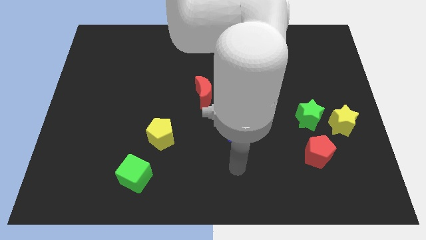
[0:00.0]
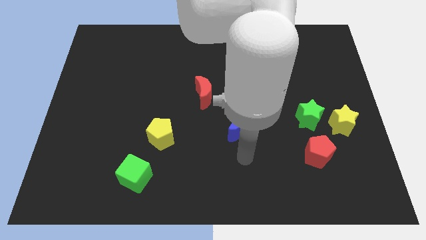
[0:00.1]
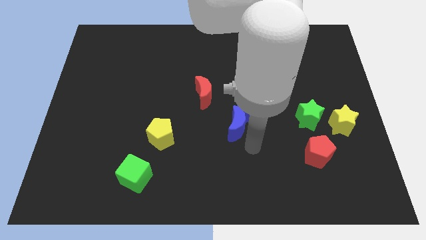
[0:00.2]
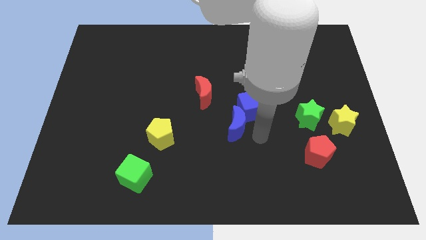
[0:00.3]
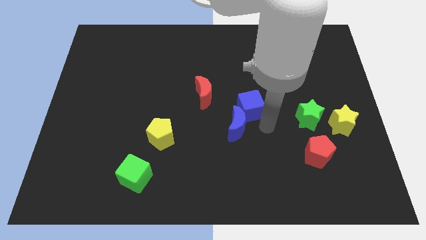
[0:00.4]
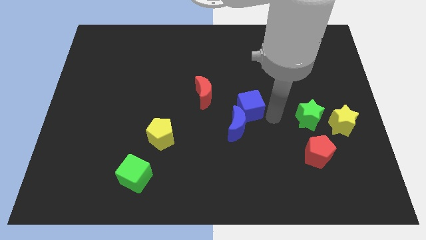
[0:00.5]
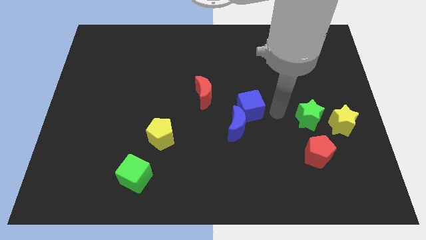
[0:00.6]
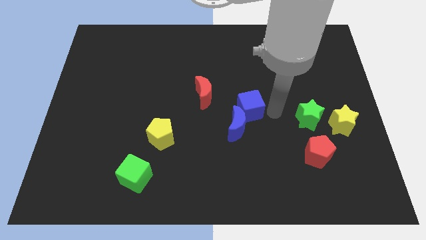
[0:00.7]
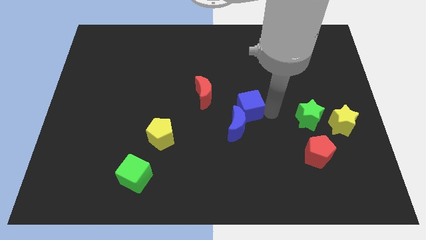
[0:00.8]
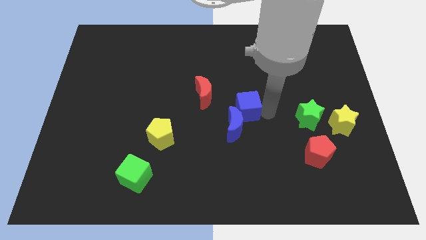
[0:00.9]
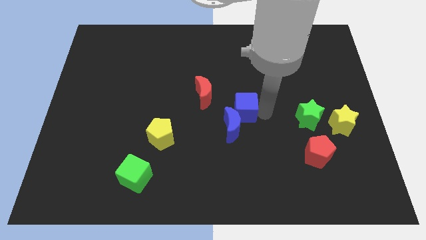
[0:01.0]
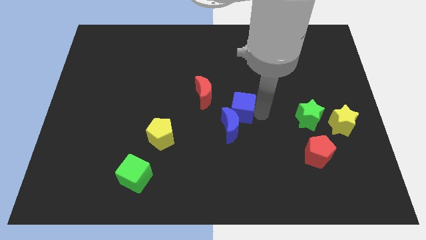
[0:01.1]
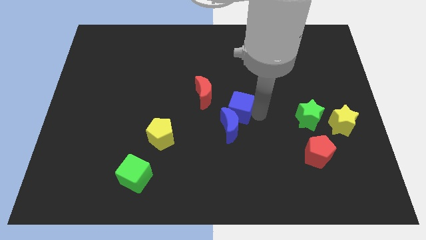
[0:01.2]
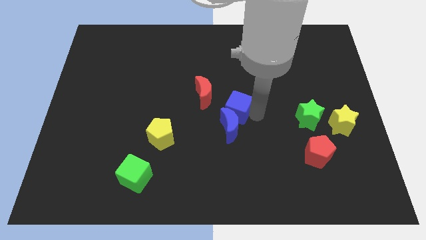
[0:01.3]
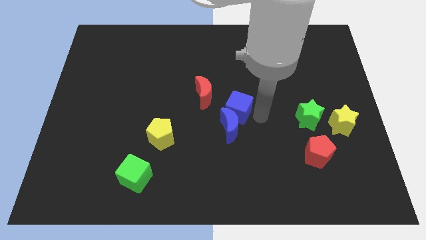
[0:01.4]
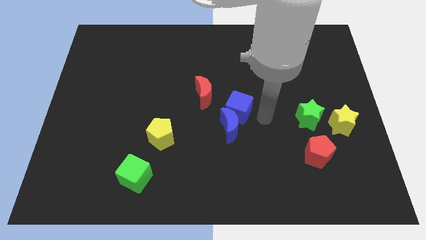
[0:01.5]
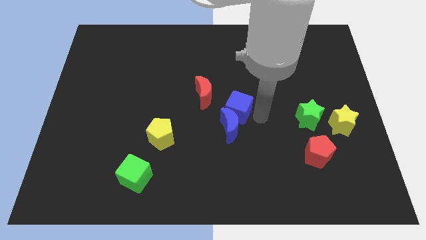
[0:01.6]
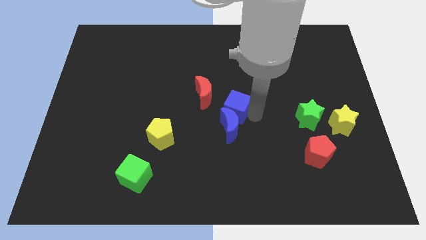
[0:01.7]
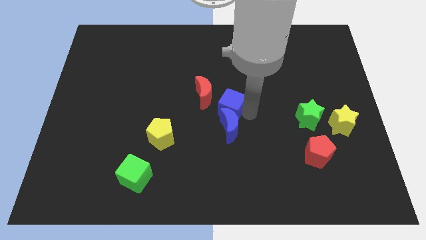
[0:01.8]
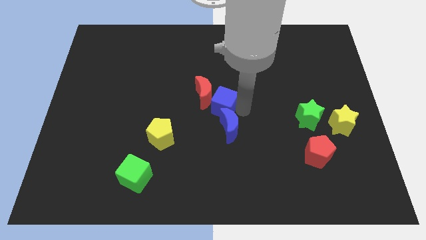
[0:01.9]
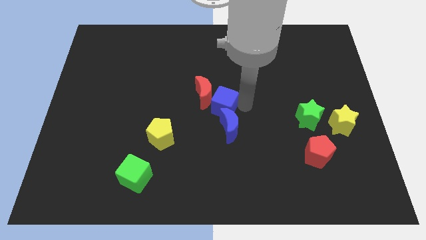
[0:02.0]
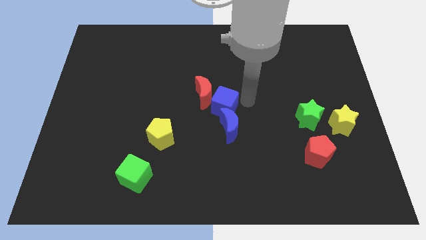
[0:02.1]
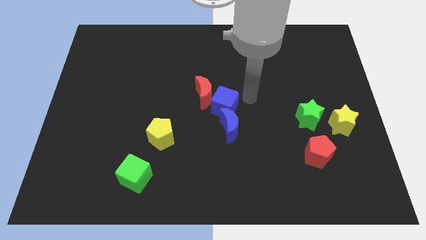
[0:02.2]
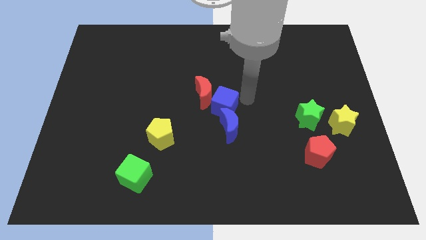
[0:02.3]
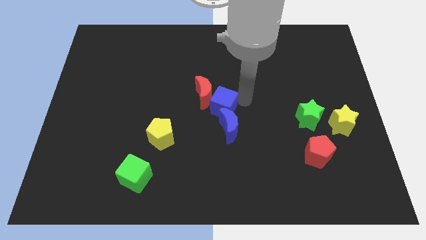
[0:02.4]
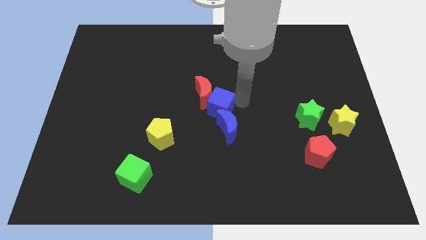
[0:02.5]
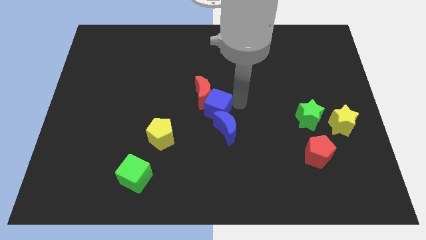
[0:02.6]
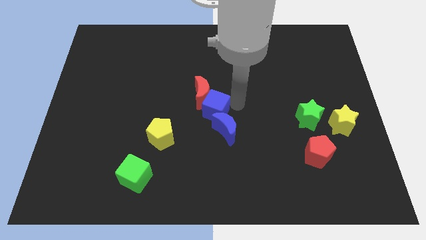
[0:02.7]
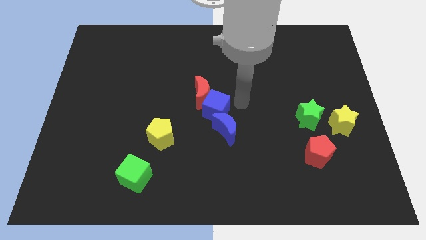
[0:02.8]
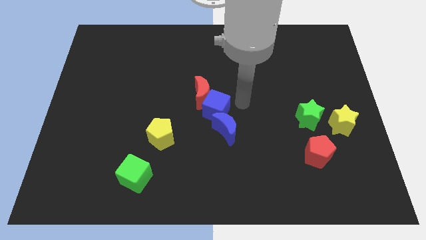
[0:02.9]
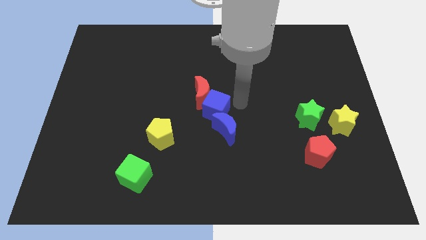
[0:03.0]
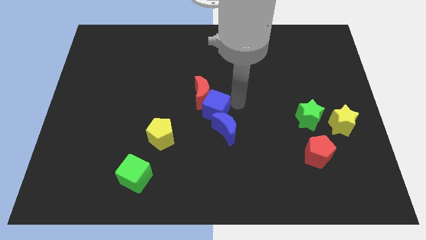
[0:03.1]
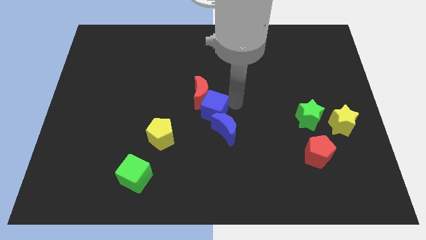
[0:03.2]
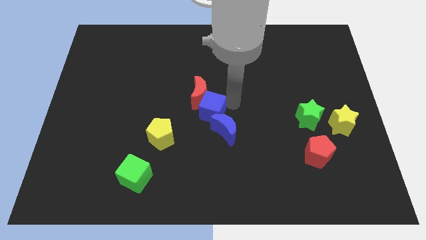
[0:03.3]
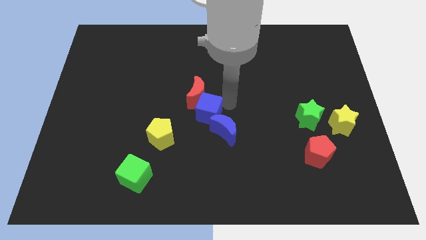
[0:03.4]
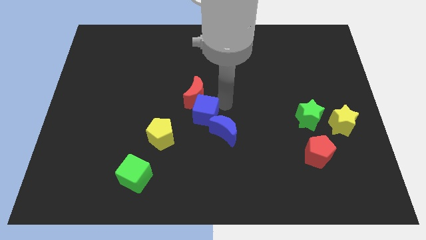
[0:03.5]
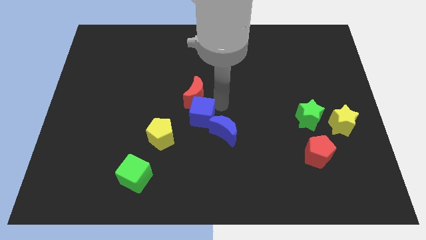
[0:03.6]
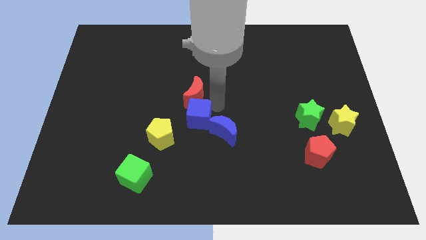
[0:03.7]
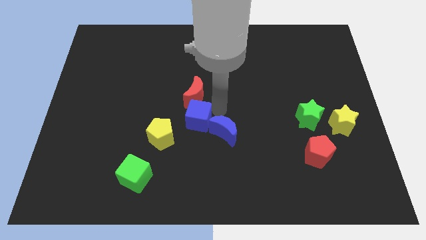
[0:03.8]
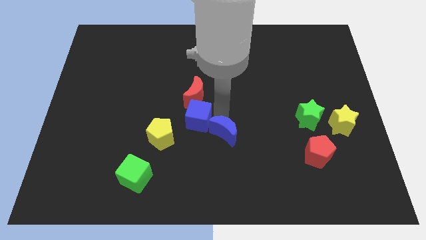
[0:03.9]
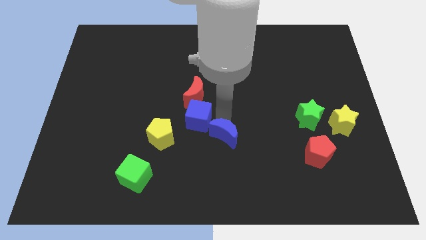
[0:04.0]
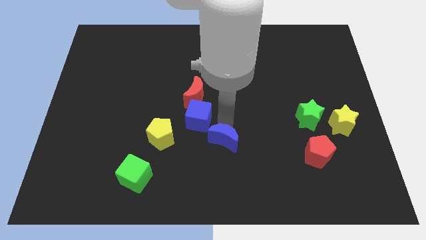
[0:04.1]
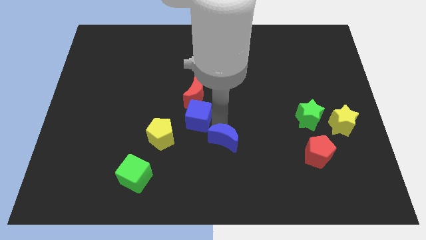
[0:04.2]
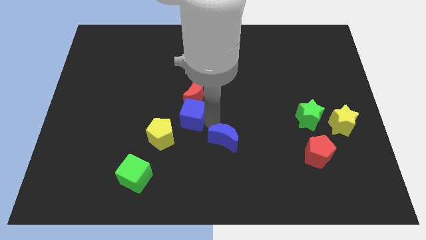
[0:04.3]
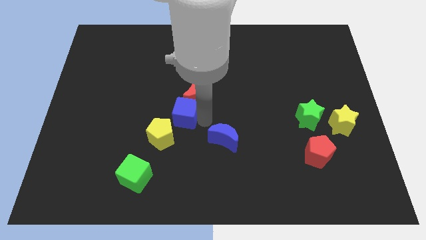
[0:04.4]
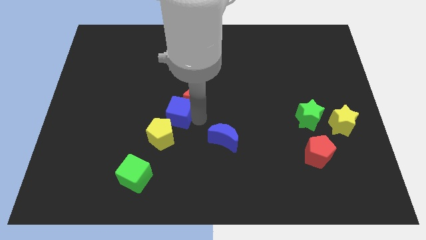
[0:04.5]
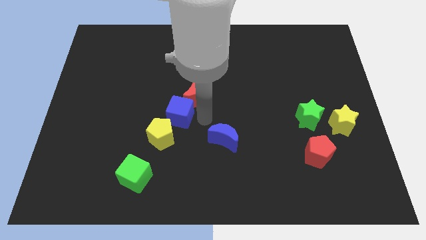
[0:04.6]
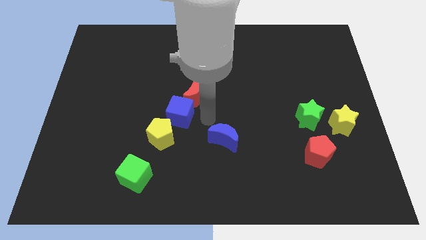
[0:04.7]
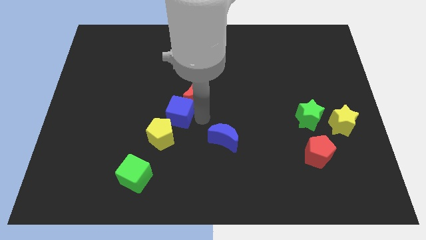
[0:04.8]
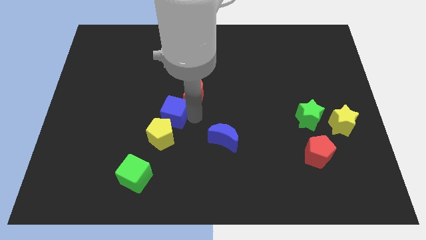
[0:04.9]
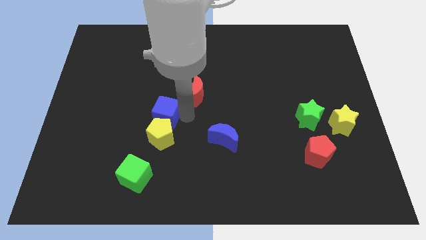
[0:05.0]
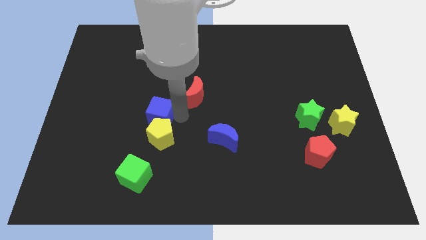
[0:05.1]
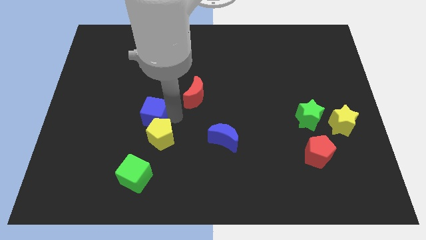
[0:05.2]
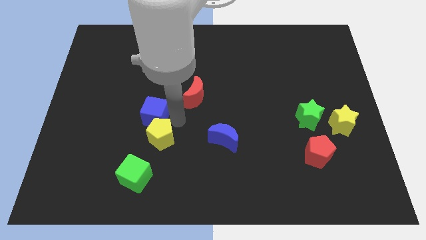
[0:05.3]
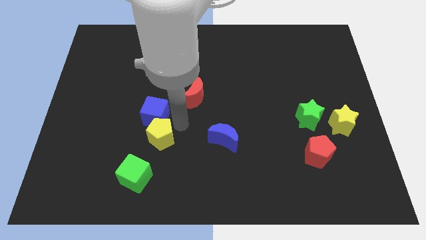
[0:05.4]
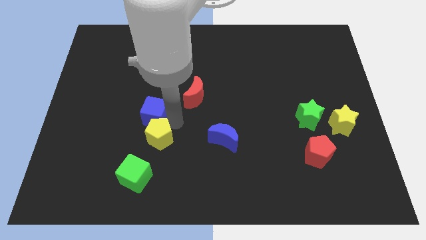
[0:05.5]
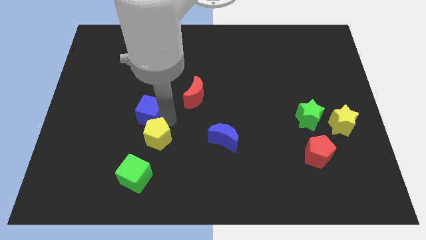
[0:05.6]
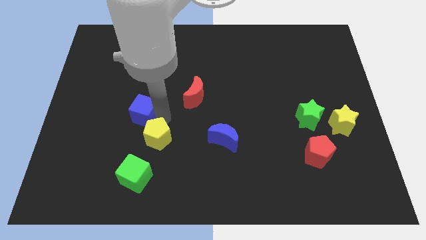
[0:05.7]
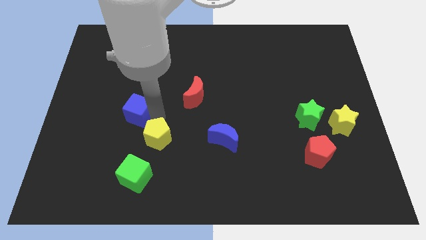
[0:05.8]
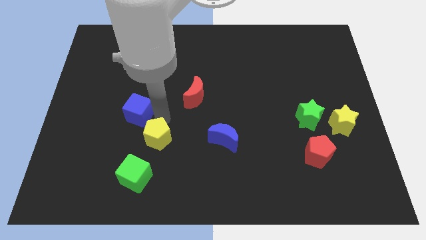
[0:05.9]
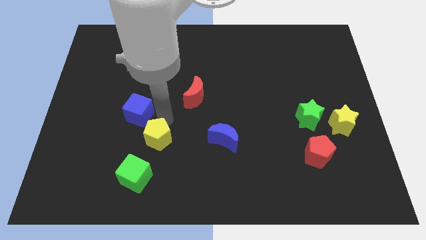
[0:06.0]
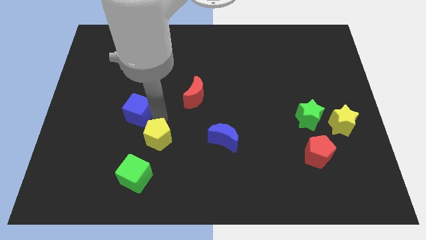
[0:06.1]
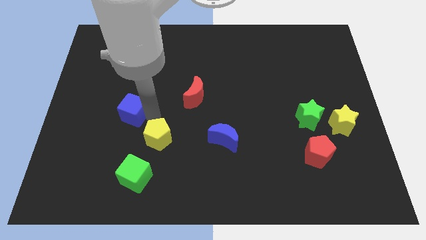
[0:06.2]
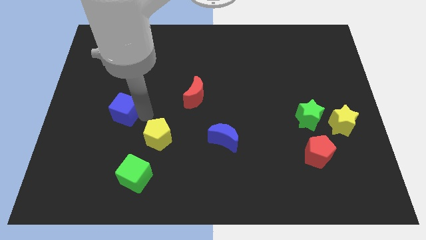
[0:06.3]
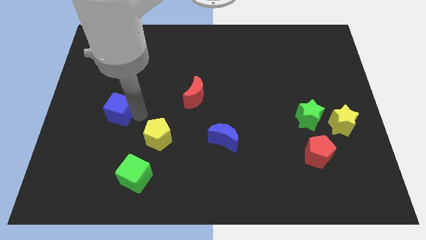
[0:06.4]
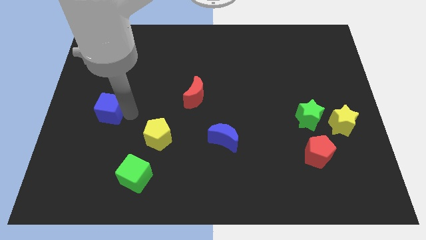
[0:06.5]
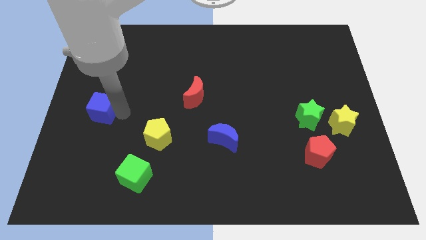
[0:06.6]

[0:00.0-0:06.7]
slide the blue cube to the center left
